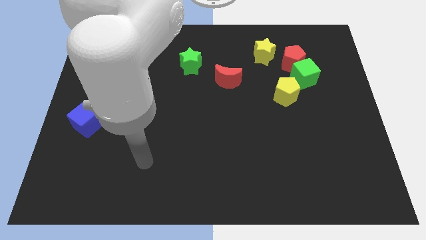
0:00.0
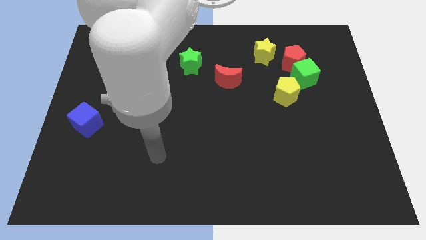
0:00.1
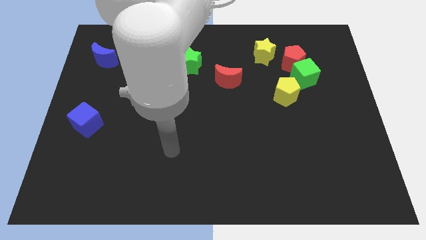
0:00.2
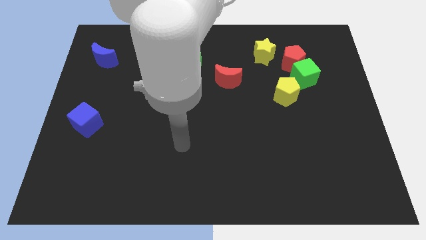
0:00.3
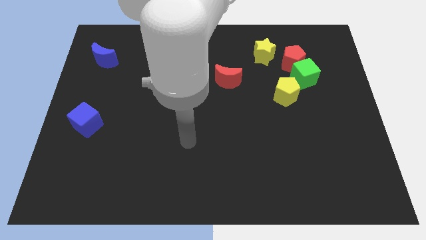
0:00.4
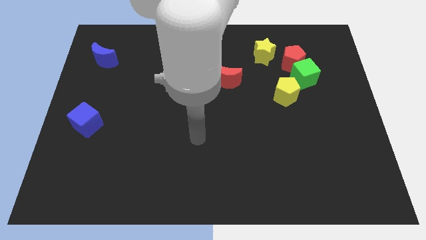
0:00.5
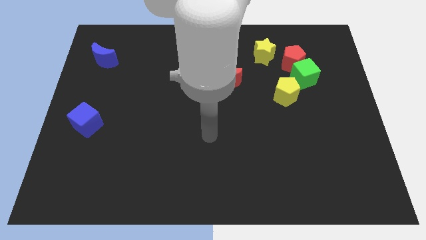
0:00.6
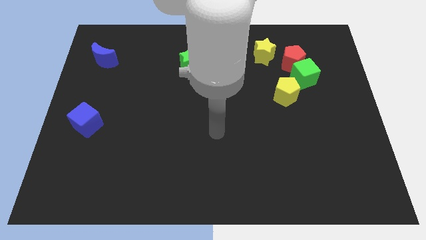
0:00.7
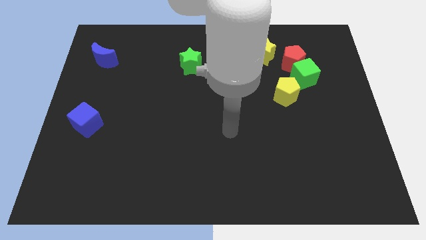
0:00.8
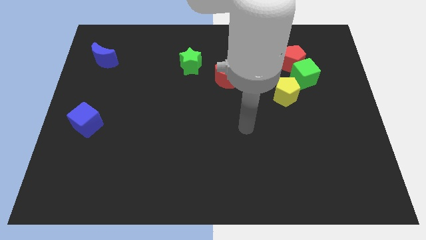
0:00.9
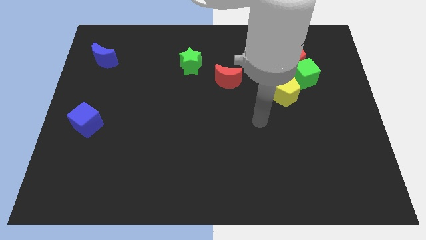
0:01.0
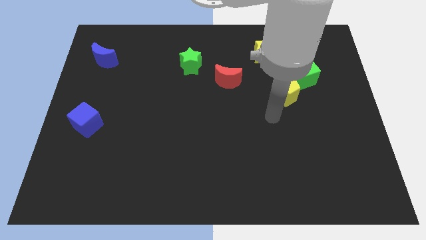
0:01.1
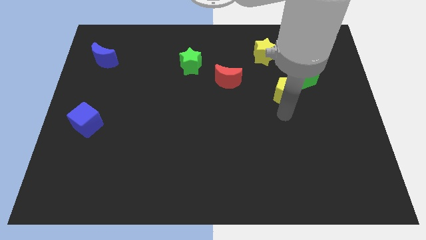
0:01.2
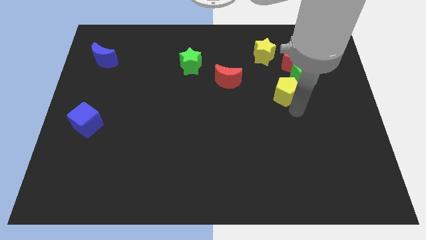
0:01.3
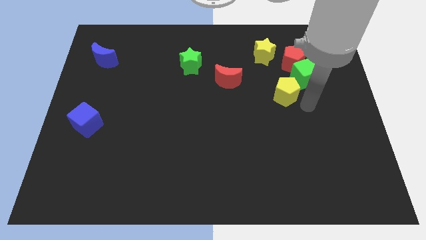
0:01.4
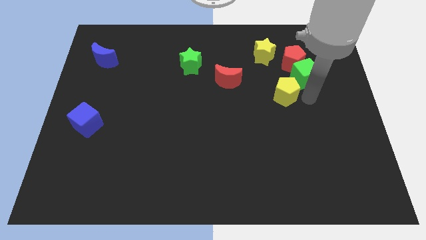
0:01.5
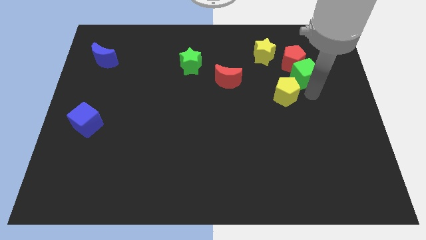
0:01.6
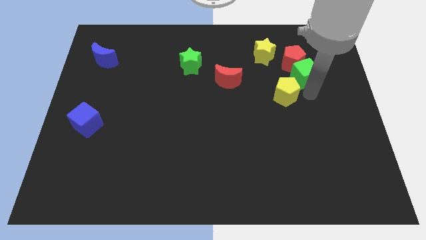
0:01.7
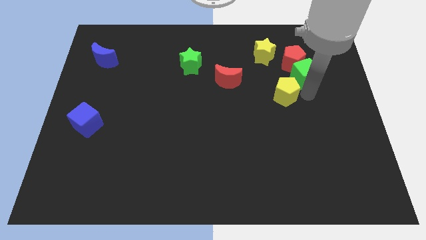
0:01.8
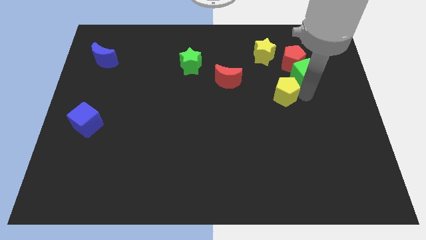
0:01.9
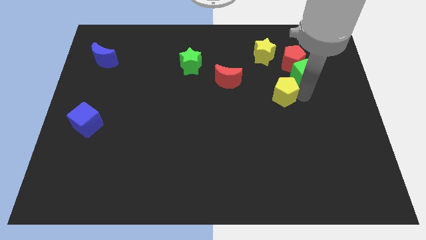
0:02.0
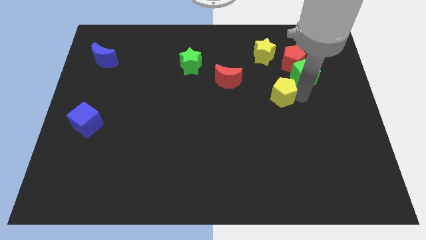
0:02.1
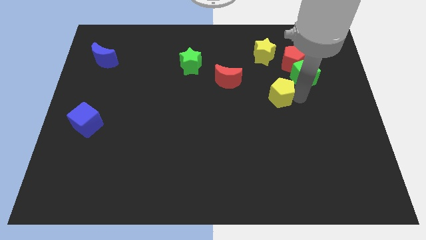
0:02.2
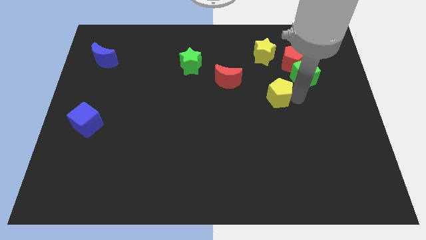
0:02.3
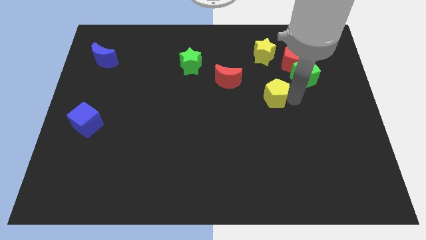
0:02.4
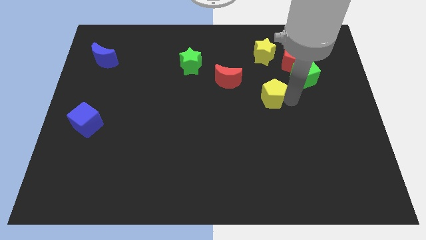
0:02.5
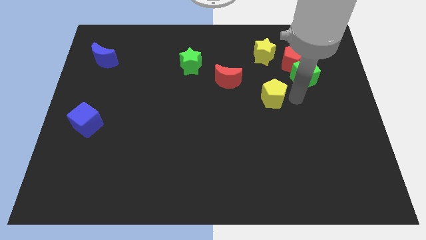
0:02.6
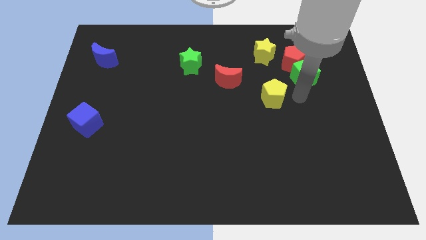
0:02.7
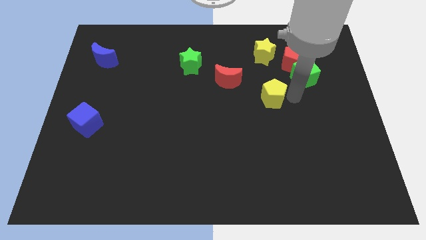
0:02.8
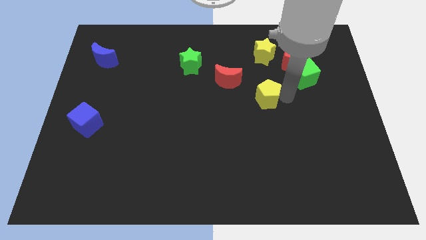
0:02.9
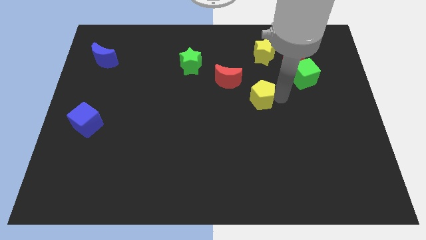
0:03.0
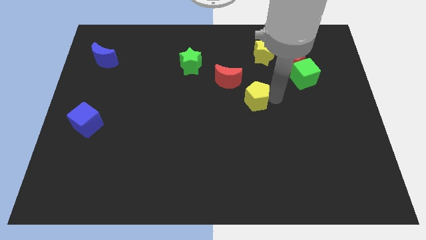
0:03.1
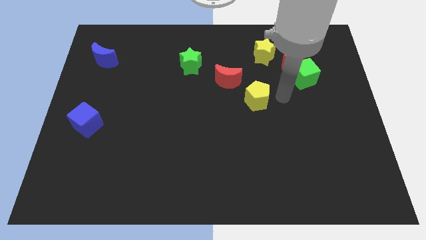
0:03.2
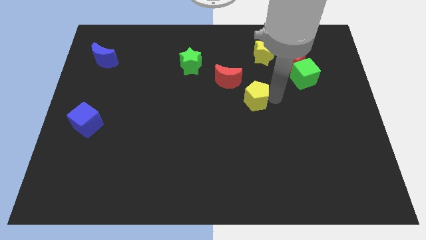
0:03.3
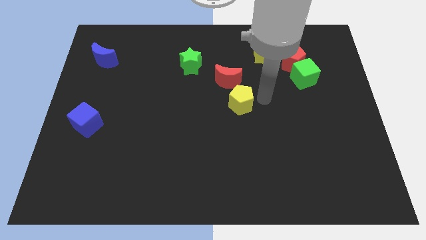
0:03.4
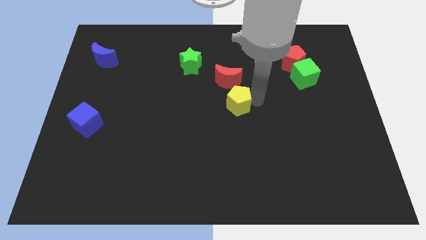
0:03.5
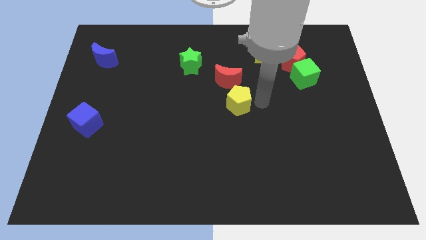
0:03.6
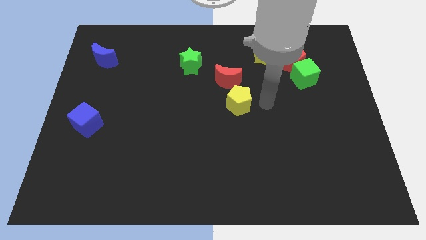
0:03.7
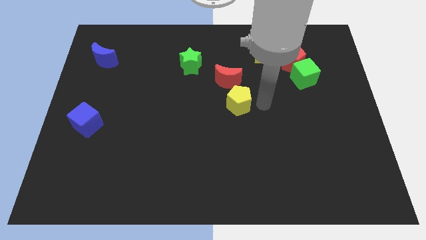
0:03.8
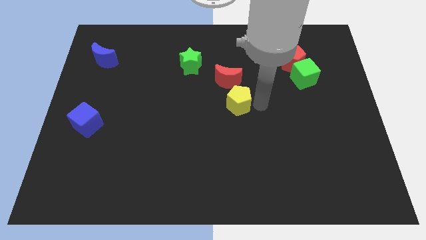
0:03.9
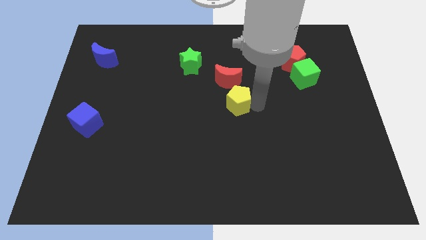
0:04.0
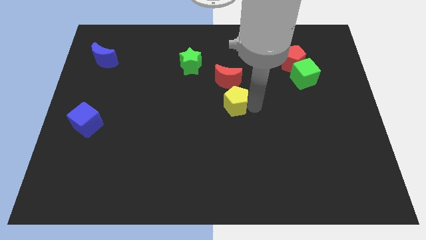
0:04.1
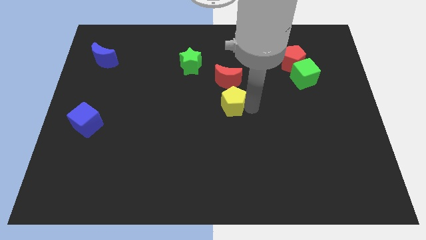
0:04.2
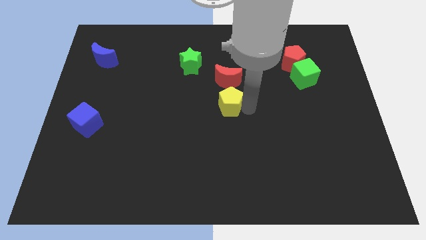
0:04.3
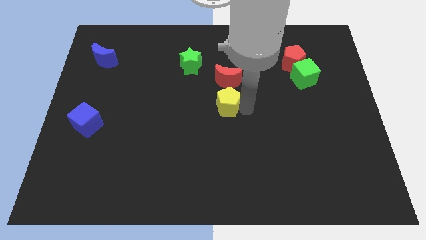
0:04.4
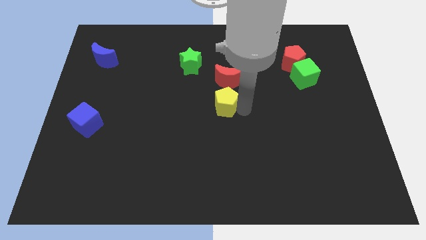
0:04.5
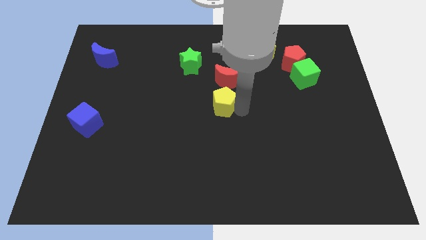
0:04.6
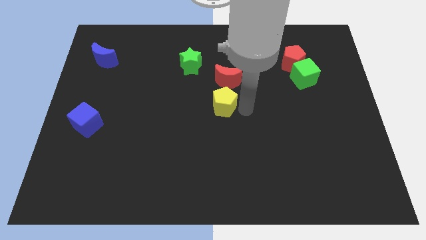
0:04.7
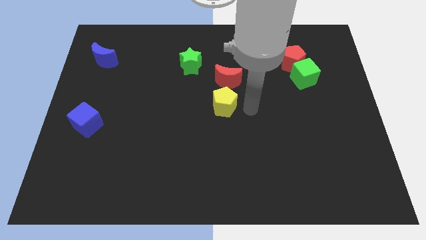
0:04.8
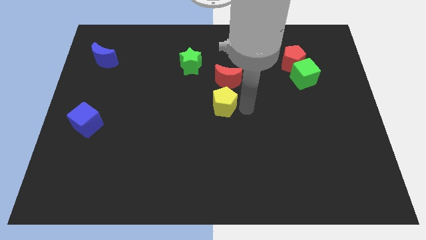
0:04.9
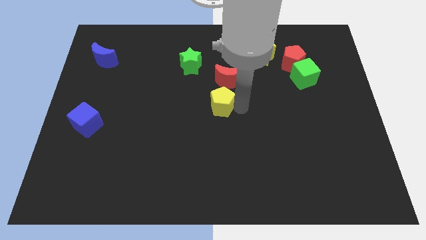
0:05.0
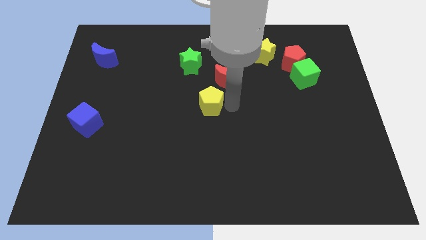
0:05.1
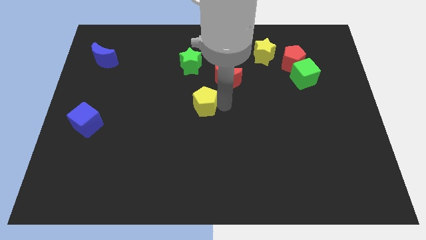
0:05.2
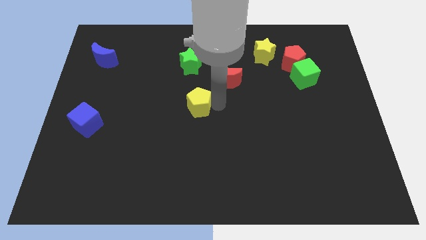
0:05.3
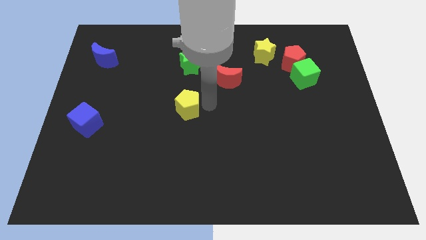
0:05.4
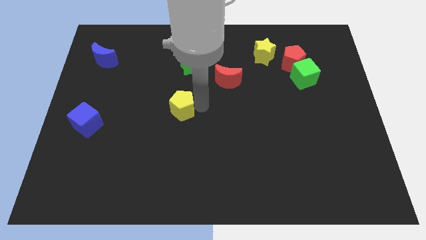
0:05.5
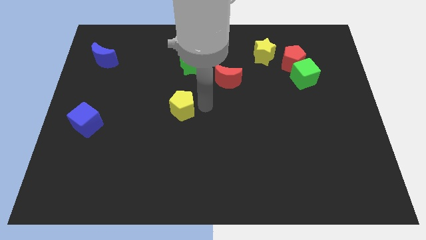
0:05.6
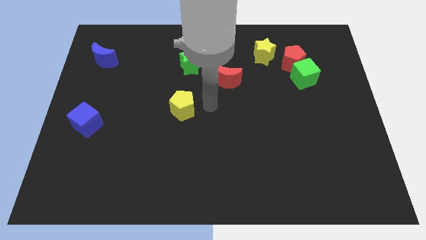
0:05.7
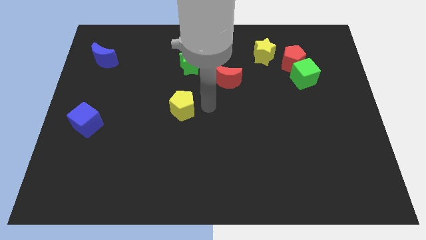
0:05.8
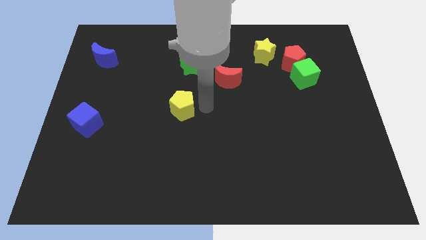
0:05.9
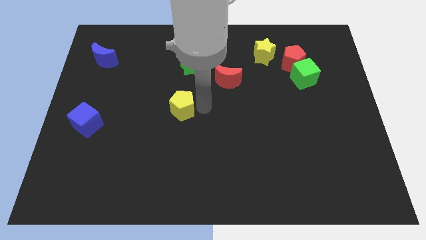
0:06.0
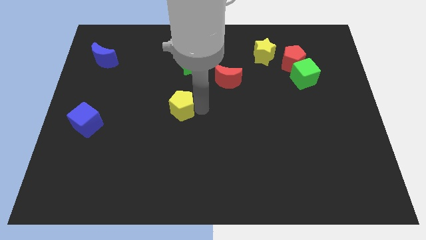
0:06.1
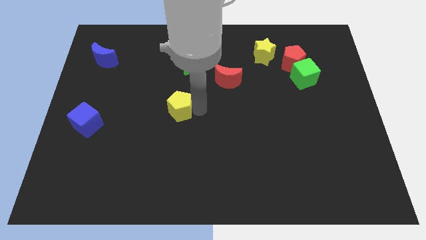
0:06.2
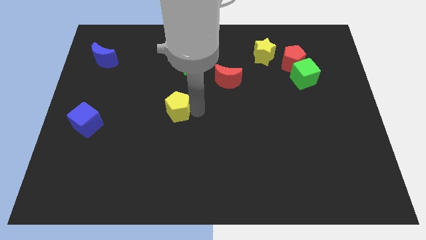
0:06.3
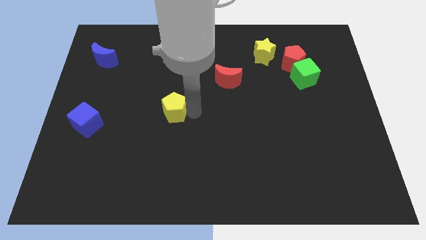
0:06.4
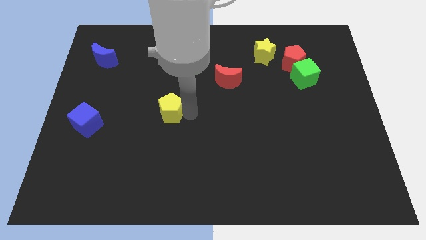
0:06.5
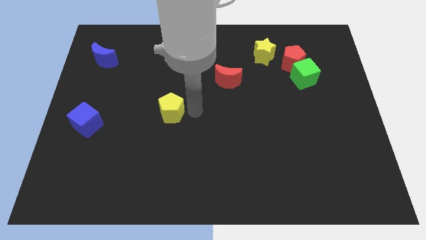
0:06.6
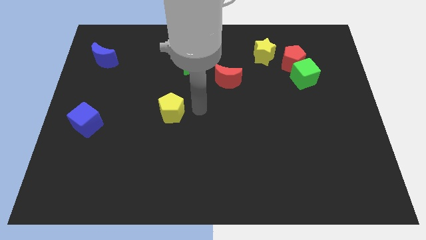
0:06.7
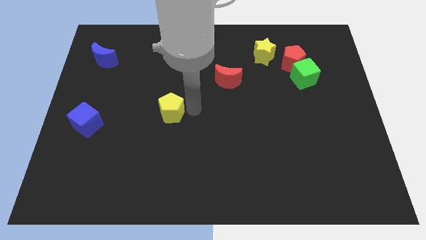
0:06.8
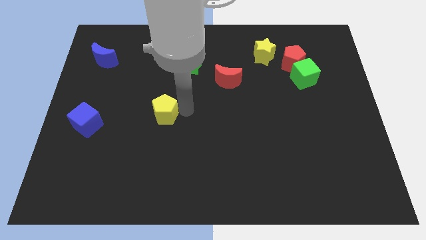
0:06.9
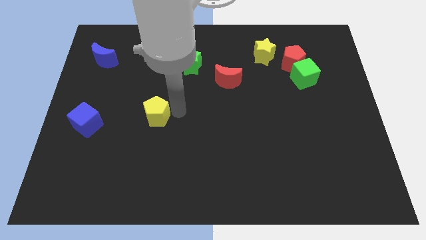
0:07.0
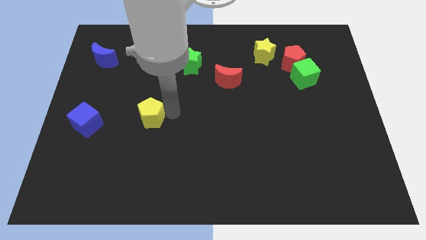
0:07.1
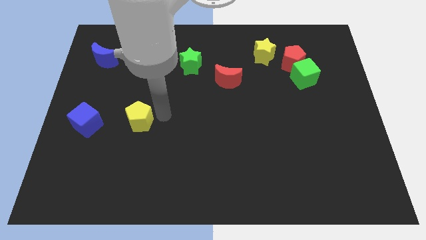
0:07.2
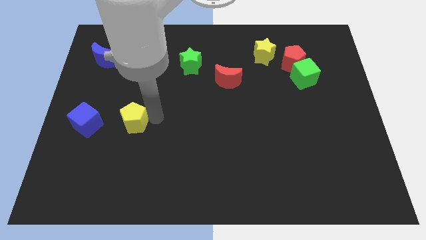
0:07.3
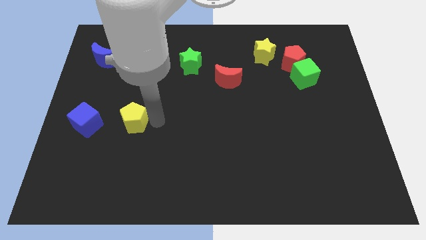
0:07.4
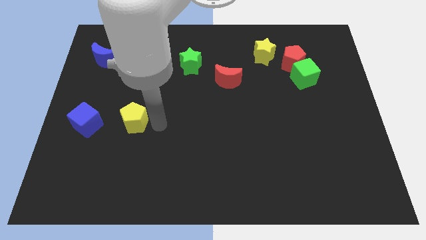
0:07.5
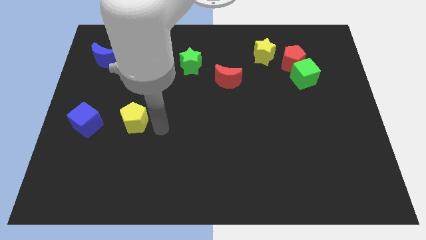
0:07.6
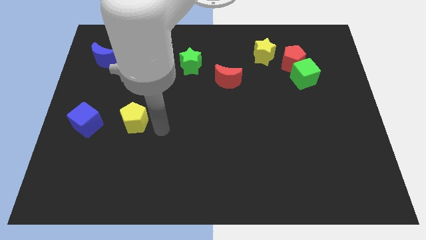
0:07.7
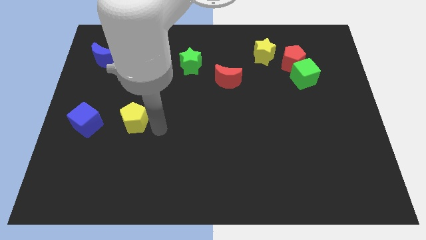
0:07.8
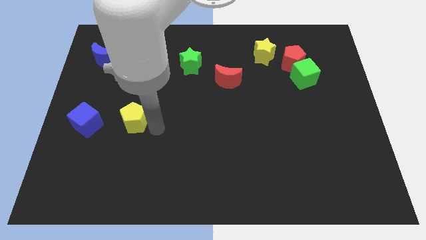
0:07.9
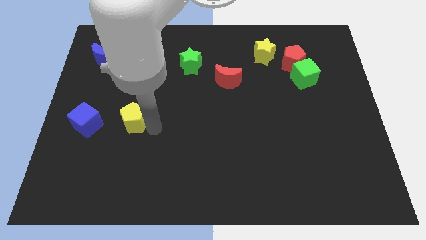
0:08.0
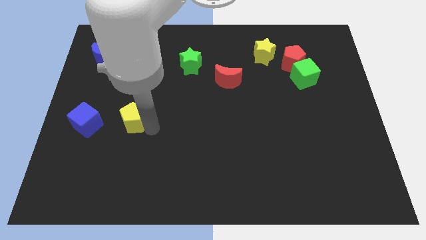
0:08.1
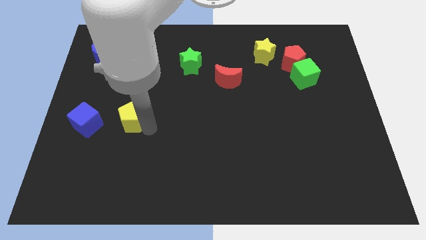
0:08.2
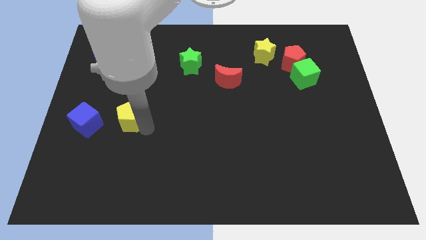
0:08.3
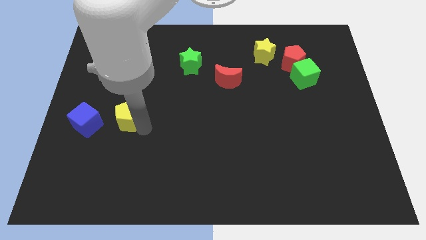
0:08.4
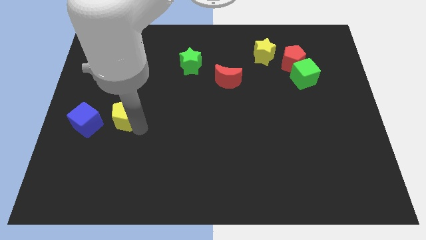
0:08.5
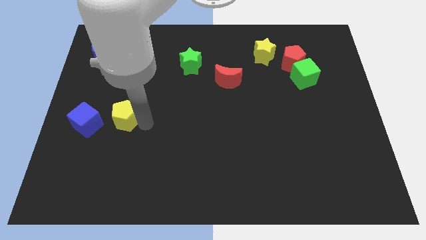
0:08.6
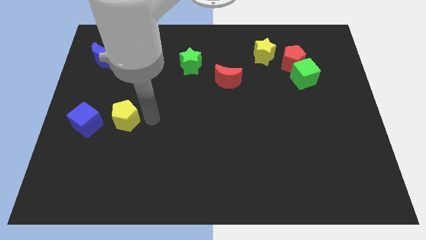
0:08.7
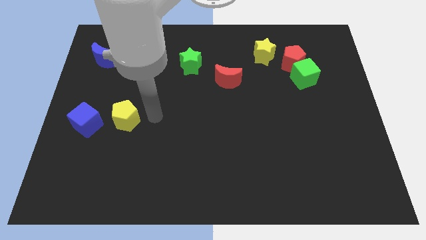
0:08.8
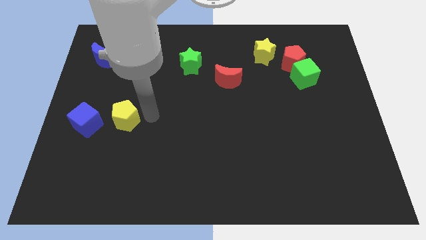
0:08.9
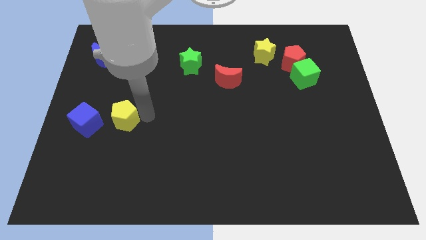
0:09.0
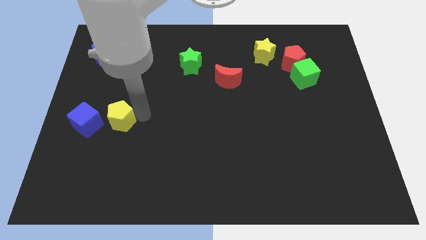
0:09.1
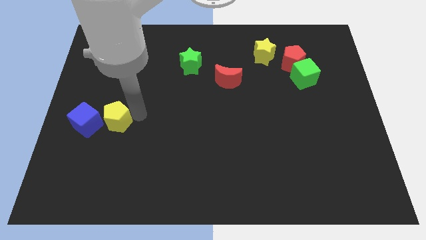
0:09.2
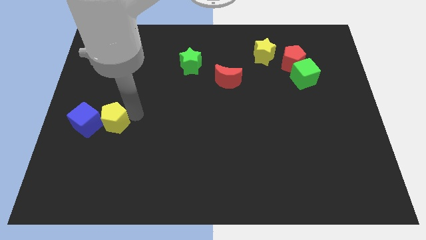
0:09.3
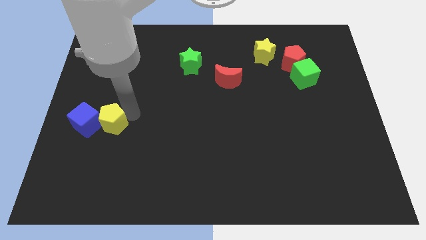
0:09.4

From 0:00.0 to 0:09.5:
push the yellow pentagon next to the blue cube
